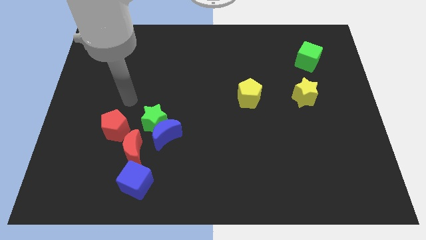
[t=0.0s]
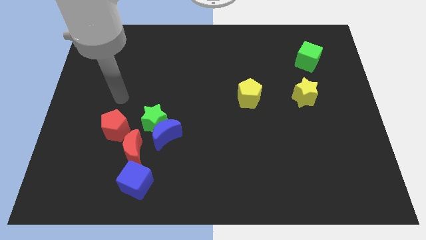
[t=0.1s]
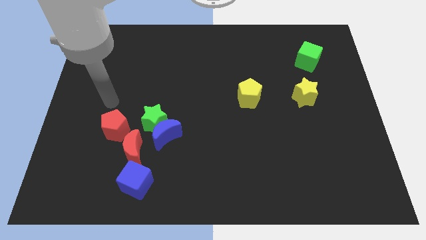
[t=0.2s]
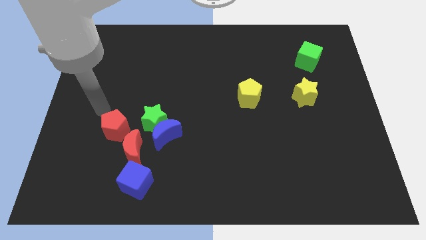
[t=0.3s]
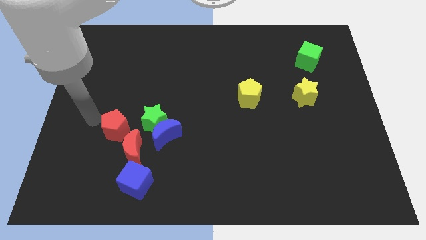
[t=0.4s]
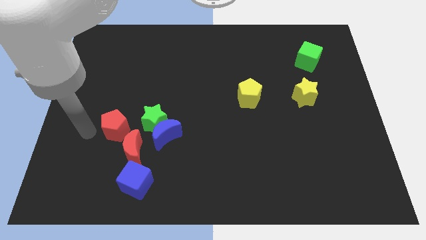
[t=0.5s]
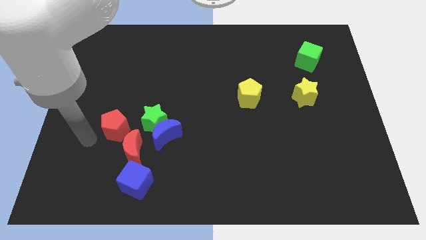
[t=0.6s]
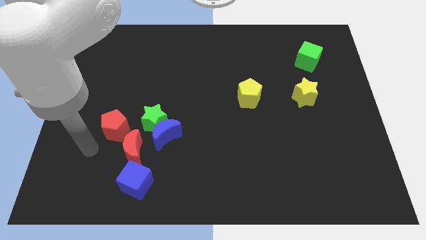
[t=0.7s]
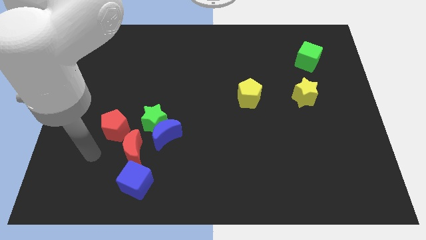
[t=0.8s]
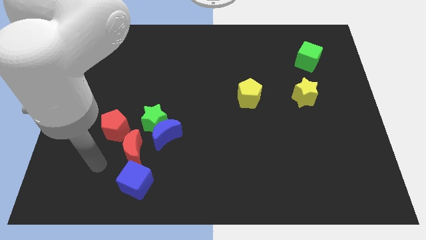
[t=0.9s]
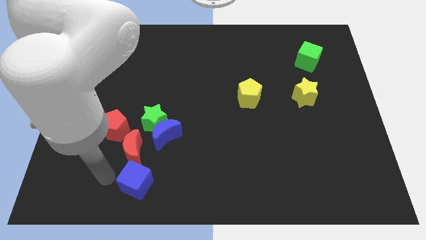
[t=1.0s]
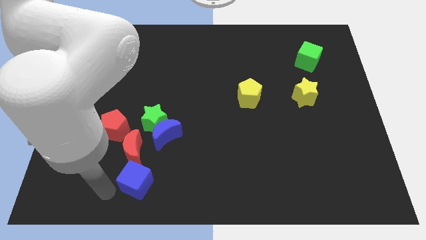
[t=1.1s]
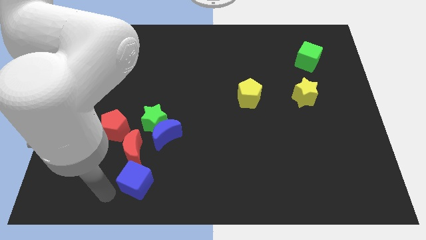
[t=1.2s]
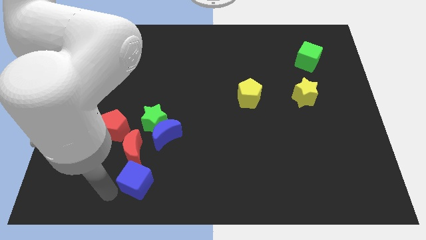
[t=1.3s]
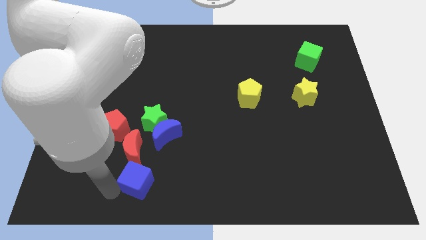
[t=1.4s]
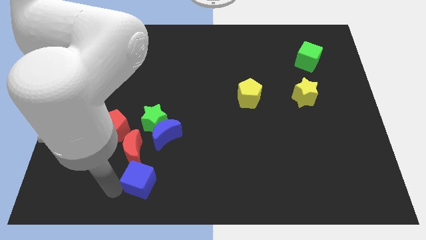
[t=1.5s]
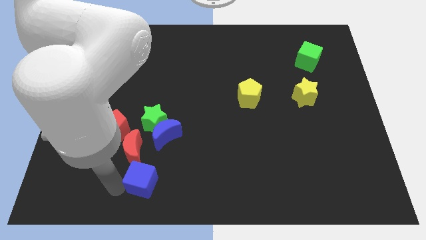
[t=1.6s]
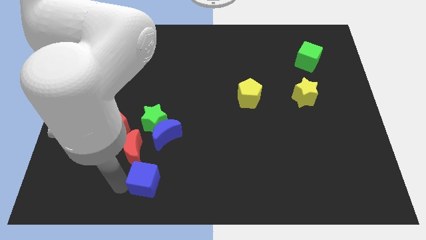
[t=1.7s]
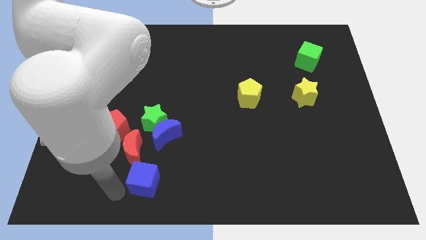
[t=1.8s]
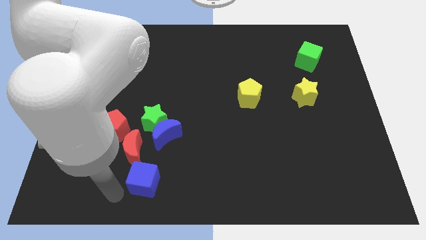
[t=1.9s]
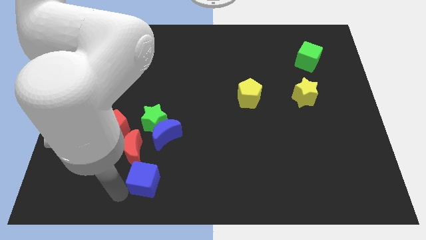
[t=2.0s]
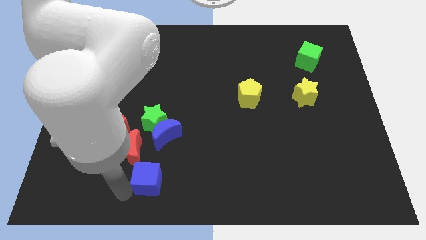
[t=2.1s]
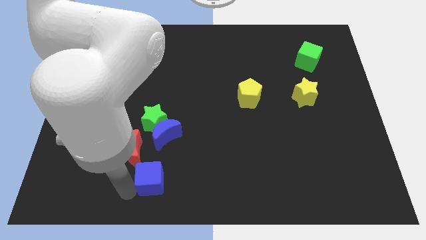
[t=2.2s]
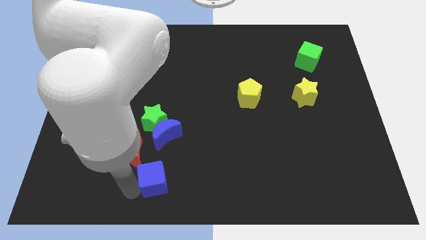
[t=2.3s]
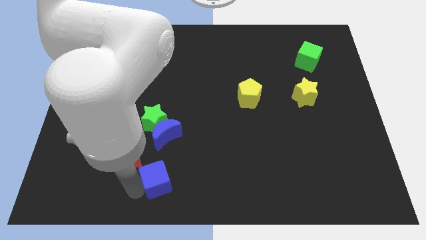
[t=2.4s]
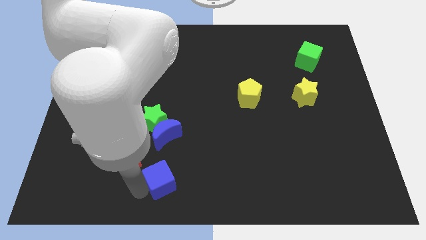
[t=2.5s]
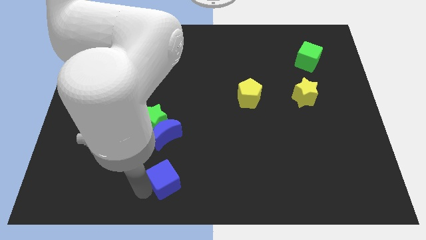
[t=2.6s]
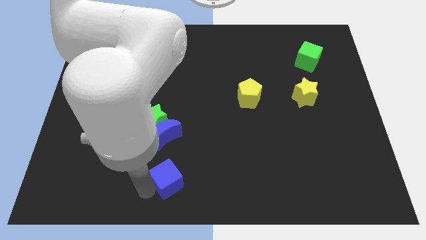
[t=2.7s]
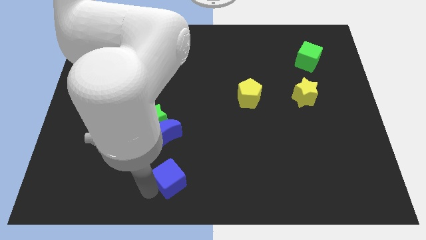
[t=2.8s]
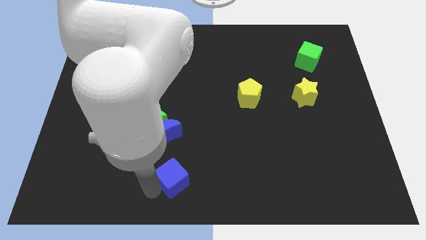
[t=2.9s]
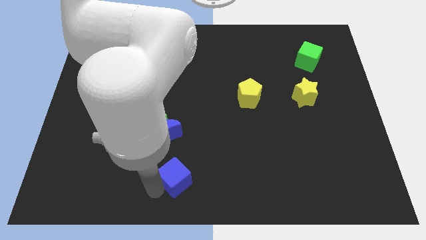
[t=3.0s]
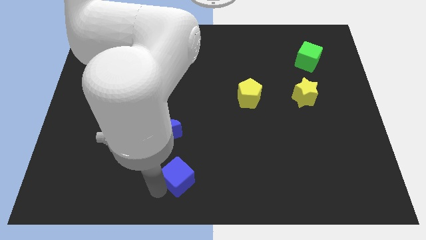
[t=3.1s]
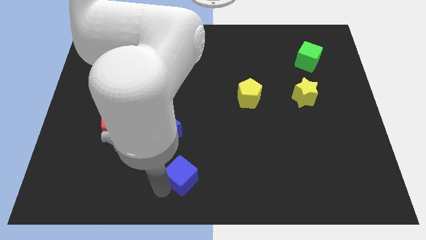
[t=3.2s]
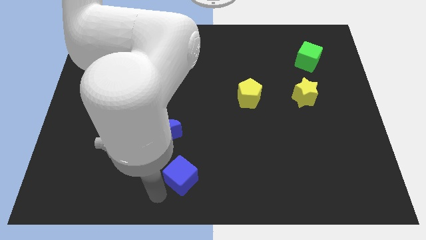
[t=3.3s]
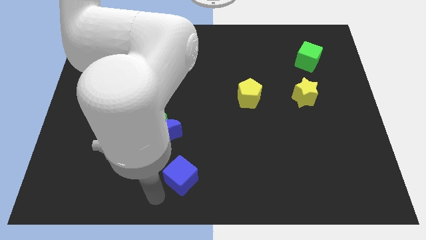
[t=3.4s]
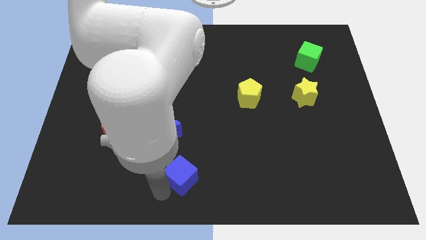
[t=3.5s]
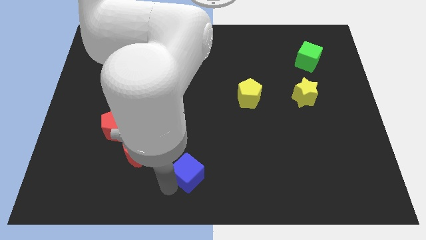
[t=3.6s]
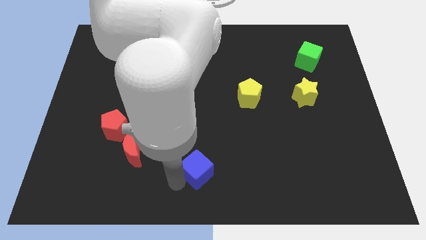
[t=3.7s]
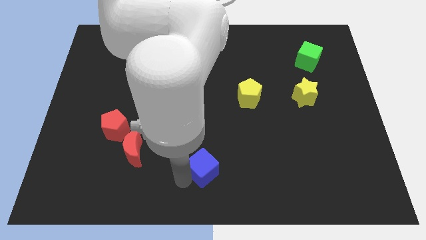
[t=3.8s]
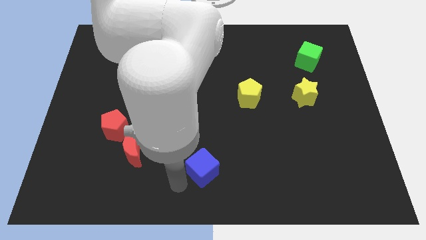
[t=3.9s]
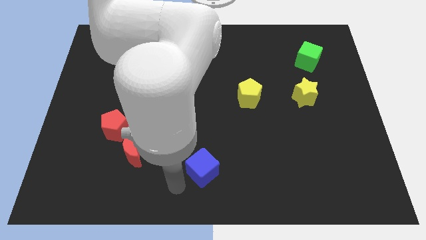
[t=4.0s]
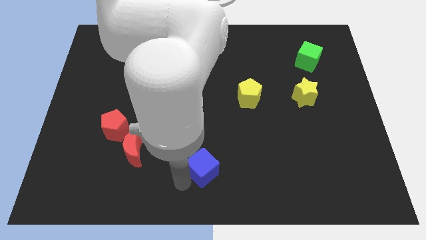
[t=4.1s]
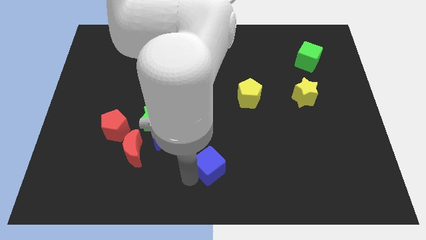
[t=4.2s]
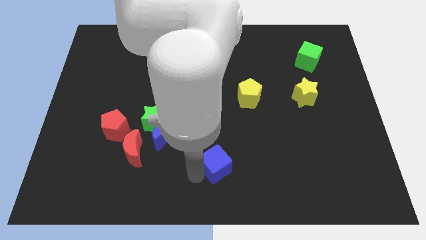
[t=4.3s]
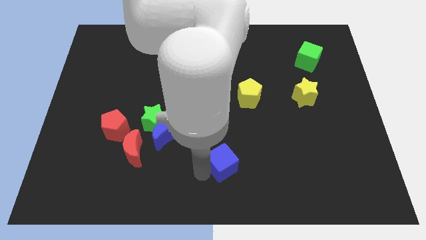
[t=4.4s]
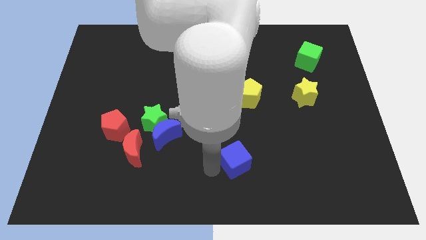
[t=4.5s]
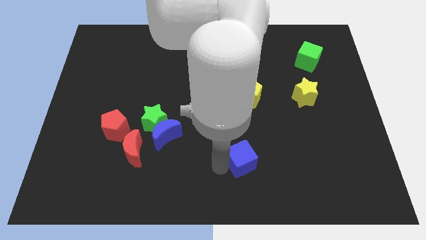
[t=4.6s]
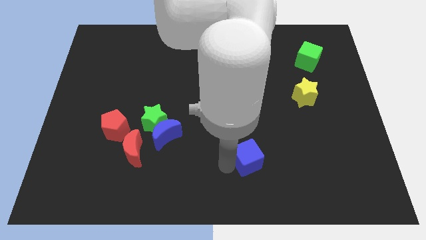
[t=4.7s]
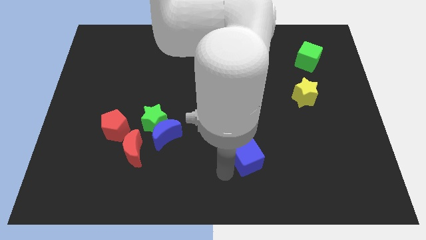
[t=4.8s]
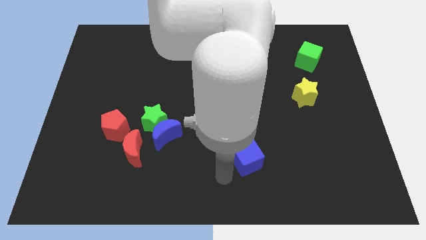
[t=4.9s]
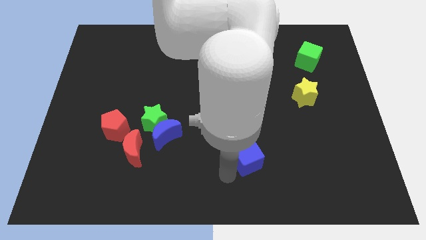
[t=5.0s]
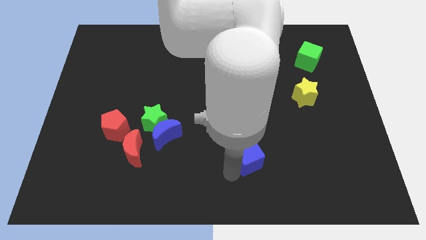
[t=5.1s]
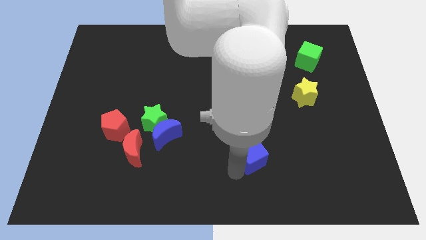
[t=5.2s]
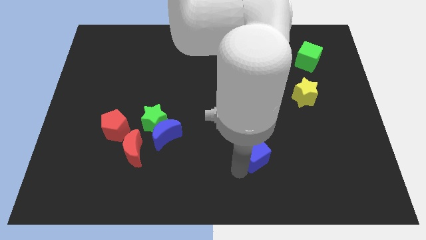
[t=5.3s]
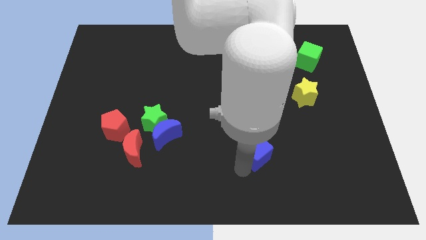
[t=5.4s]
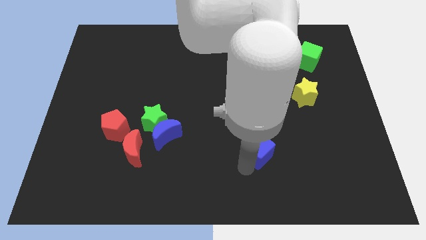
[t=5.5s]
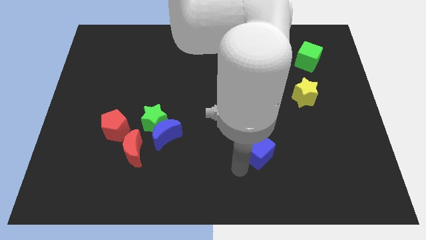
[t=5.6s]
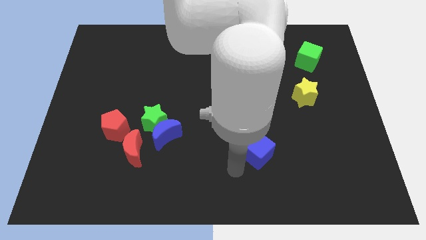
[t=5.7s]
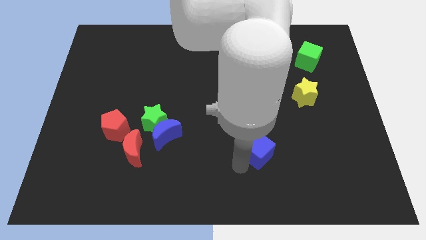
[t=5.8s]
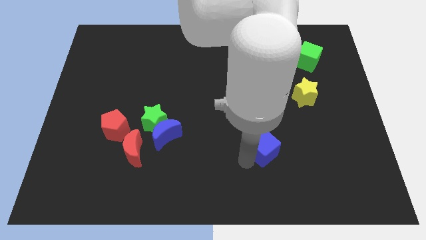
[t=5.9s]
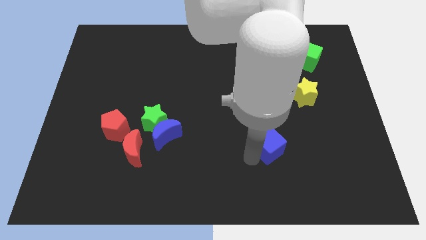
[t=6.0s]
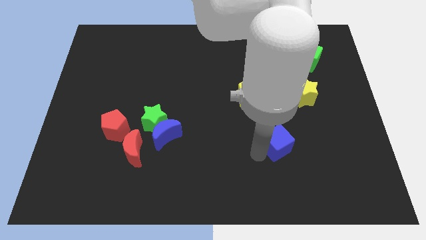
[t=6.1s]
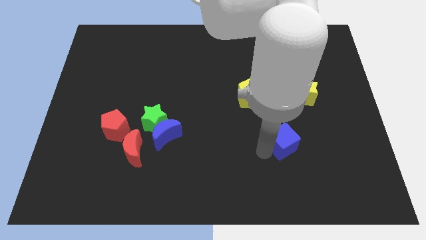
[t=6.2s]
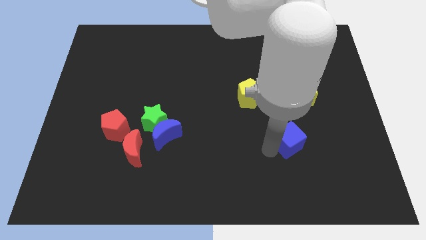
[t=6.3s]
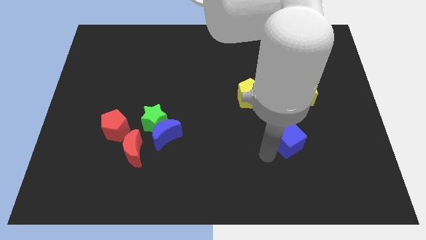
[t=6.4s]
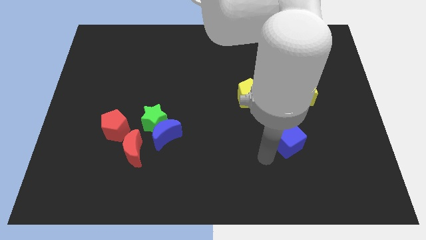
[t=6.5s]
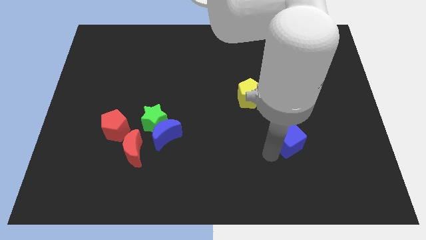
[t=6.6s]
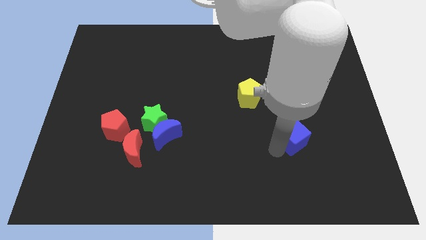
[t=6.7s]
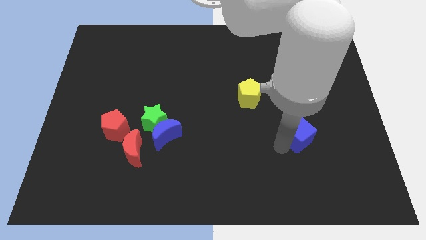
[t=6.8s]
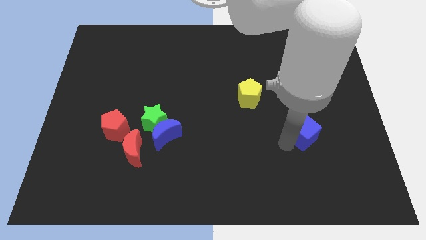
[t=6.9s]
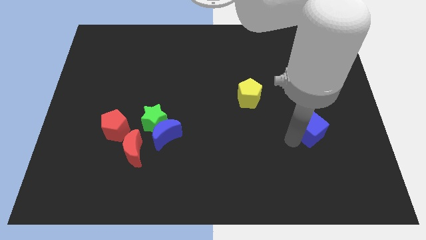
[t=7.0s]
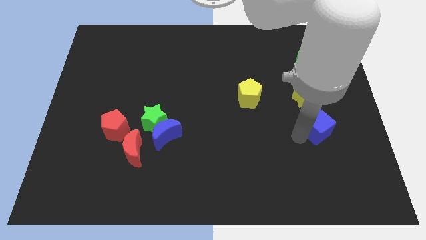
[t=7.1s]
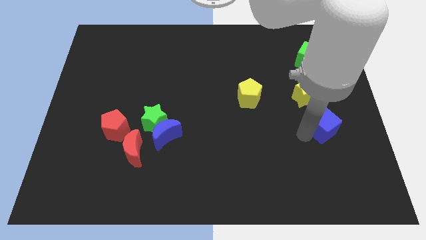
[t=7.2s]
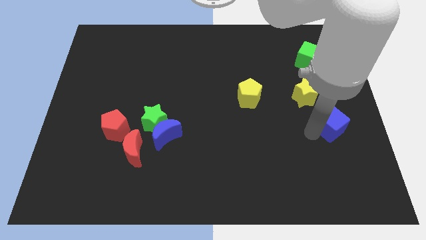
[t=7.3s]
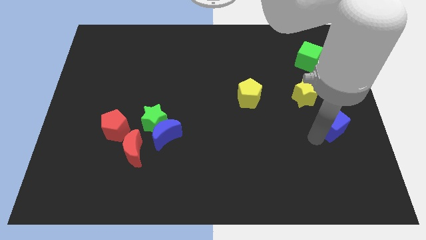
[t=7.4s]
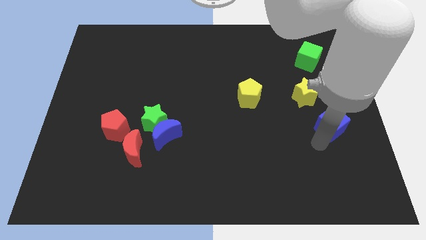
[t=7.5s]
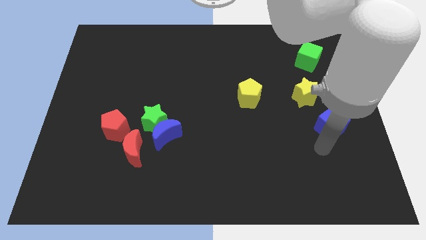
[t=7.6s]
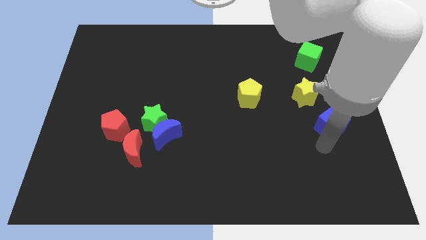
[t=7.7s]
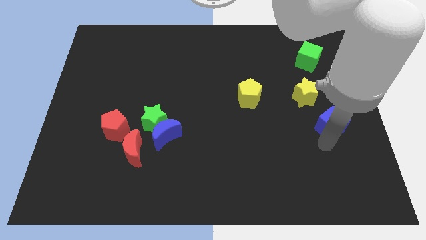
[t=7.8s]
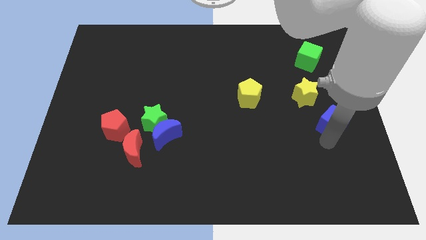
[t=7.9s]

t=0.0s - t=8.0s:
put the blue cube to the right side of the board
